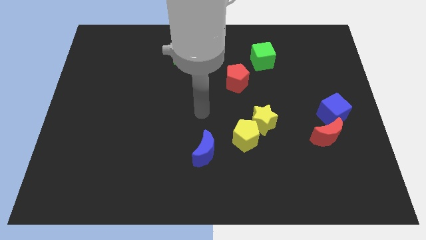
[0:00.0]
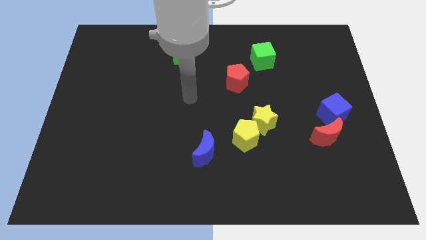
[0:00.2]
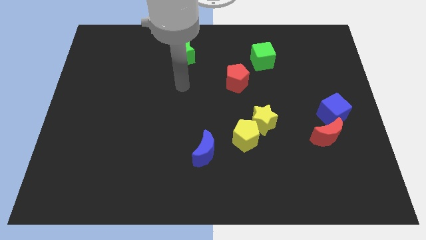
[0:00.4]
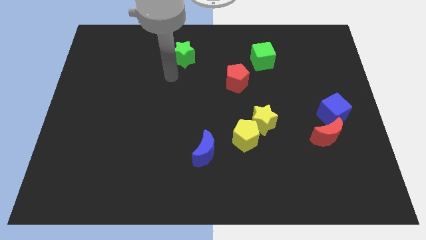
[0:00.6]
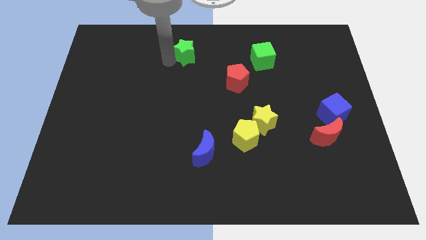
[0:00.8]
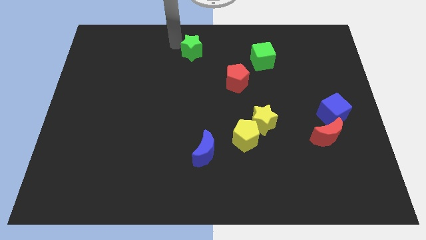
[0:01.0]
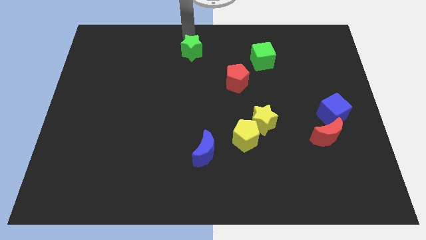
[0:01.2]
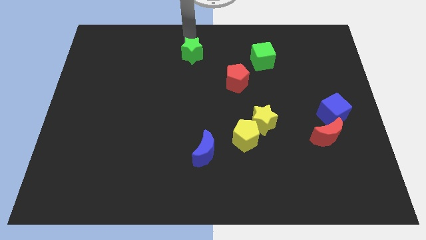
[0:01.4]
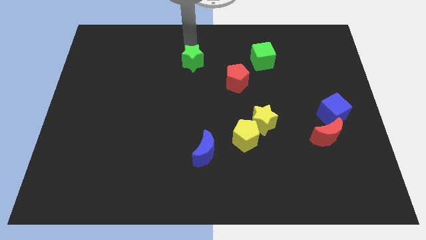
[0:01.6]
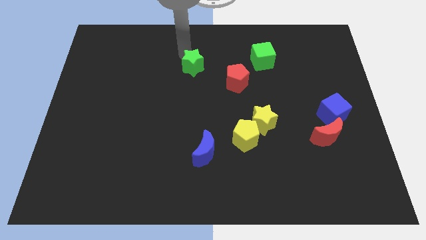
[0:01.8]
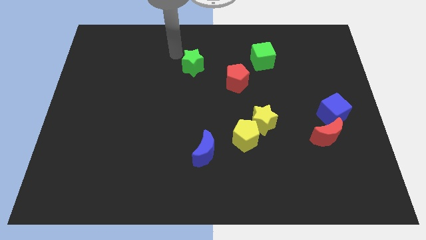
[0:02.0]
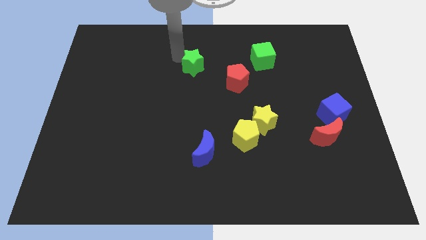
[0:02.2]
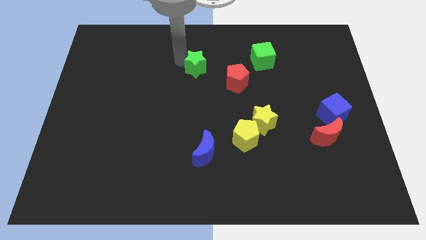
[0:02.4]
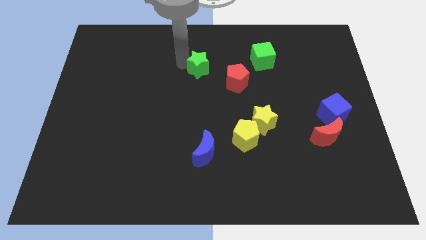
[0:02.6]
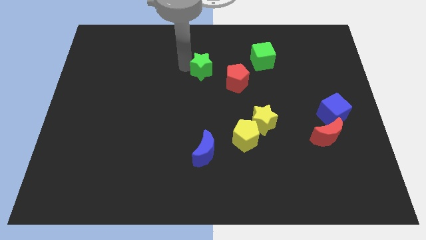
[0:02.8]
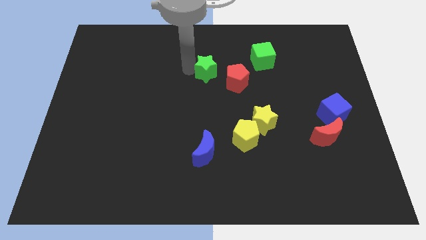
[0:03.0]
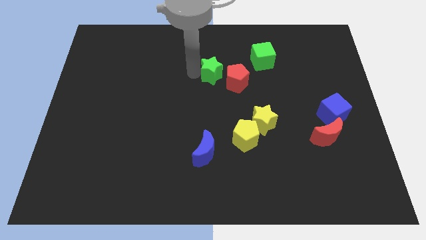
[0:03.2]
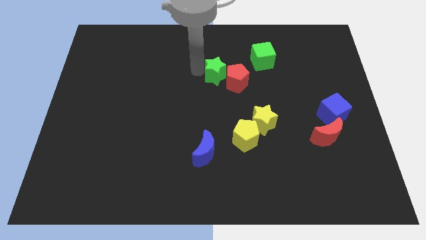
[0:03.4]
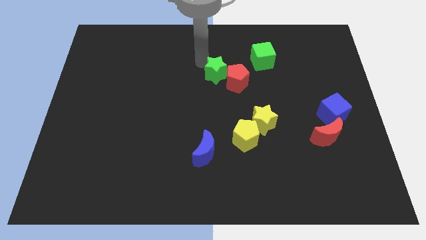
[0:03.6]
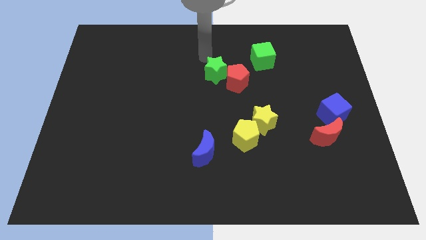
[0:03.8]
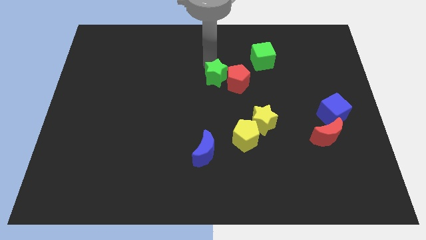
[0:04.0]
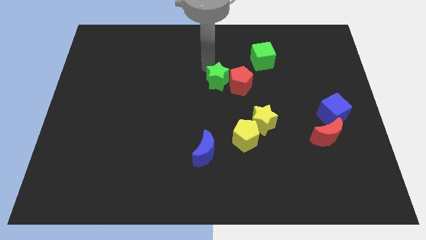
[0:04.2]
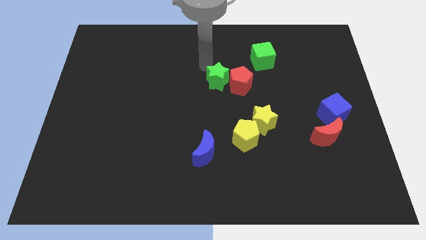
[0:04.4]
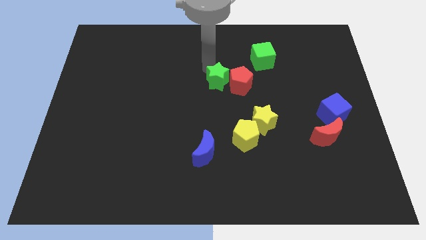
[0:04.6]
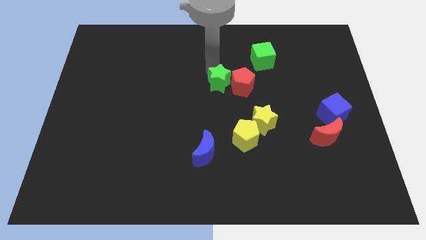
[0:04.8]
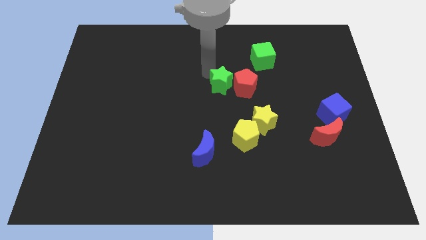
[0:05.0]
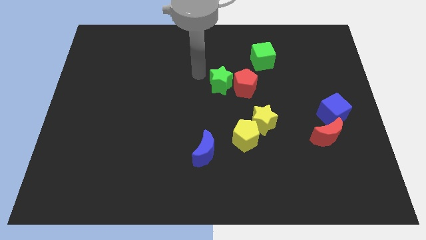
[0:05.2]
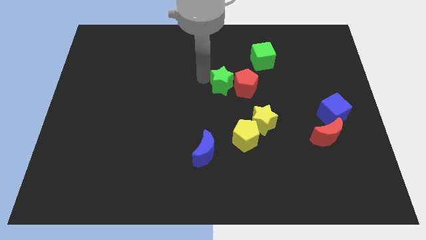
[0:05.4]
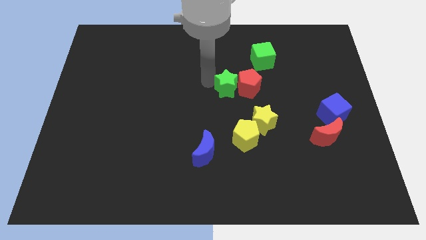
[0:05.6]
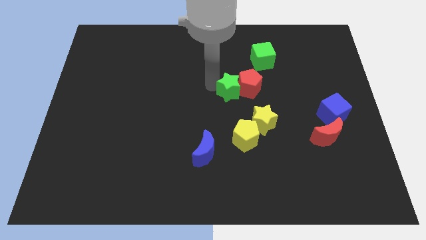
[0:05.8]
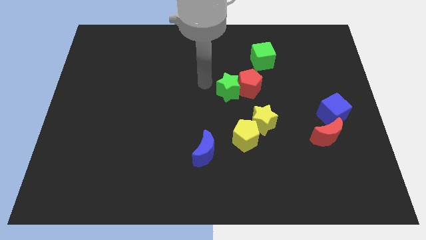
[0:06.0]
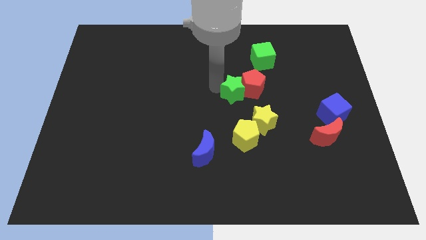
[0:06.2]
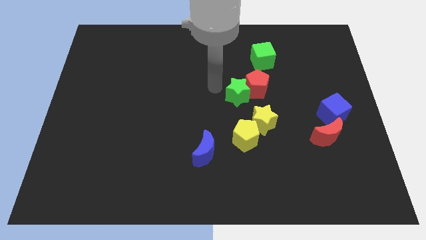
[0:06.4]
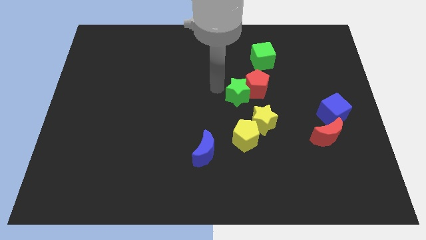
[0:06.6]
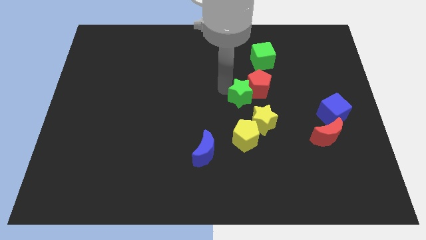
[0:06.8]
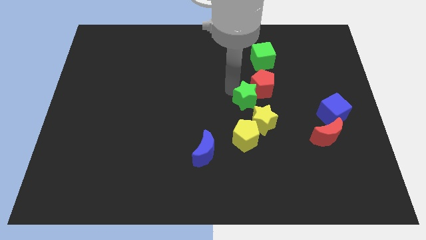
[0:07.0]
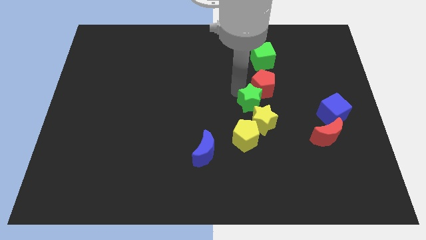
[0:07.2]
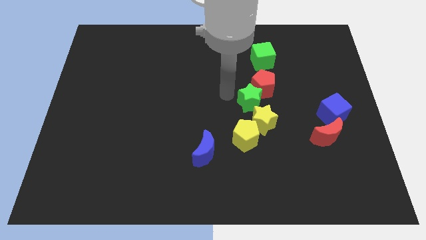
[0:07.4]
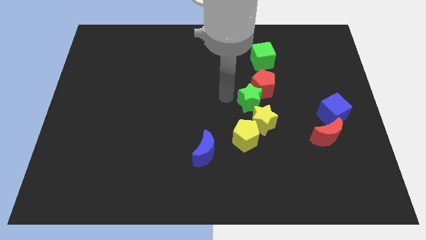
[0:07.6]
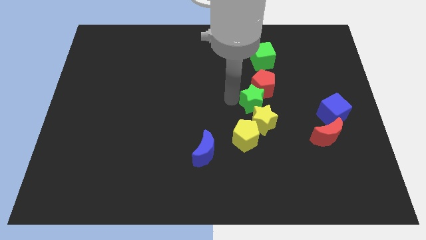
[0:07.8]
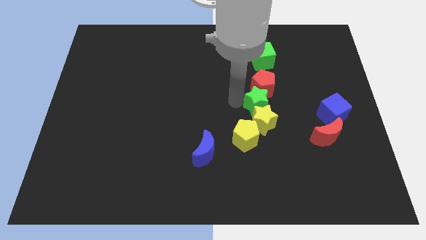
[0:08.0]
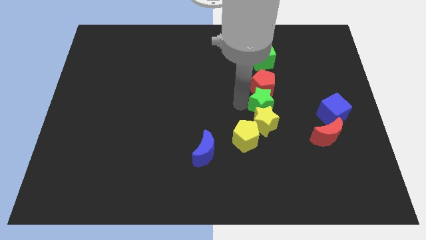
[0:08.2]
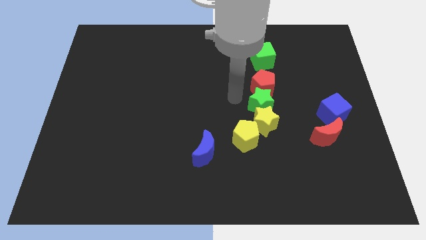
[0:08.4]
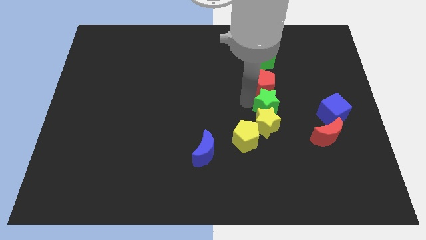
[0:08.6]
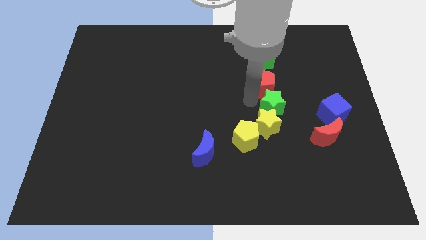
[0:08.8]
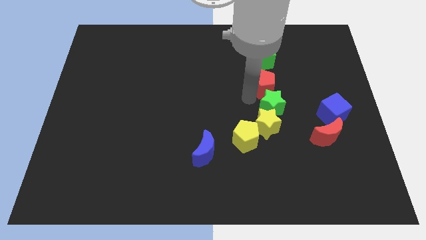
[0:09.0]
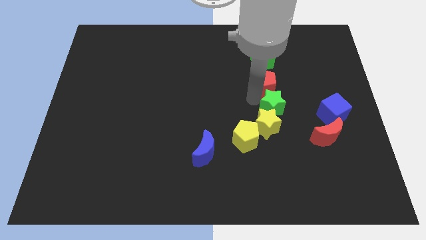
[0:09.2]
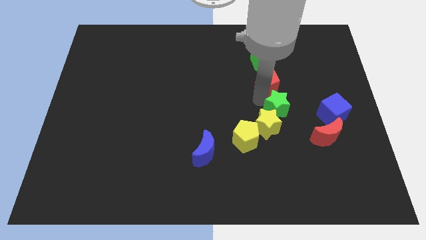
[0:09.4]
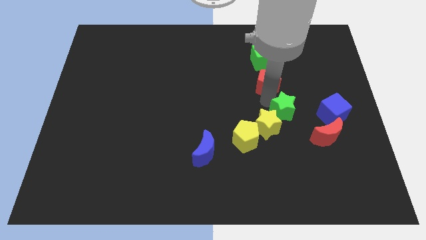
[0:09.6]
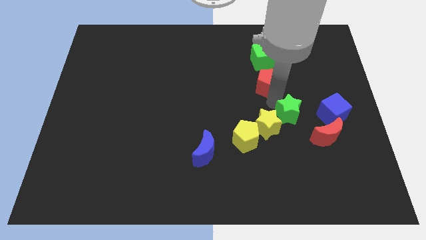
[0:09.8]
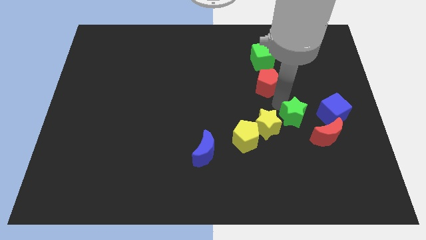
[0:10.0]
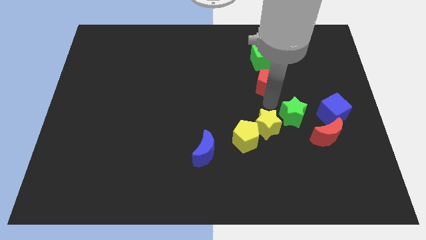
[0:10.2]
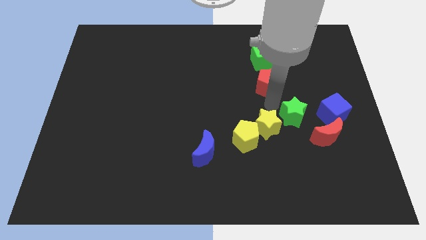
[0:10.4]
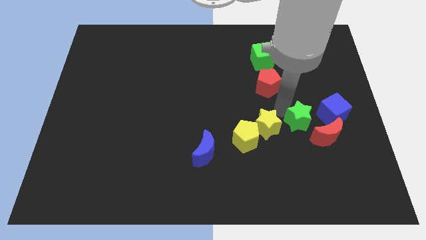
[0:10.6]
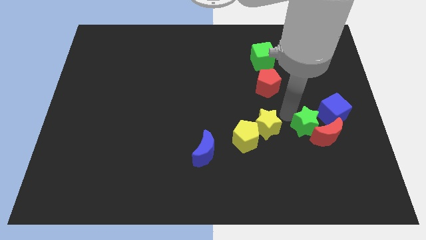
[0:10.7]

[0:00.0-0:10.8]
push the green star next to the red moon

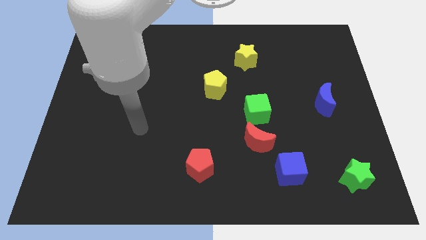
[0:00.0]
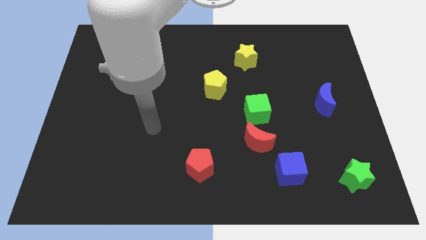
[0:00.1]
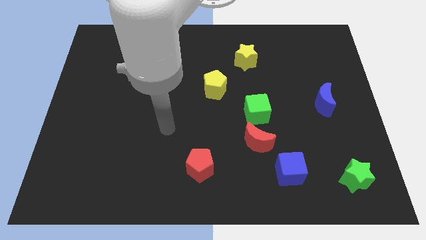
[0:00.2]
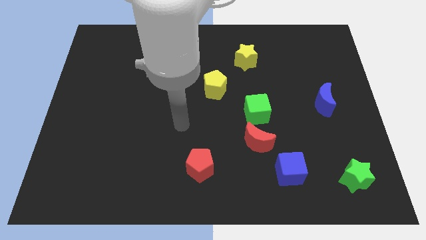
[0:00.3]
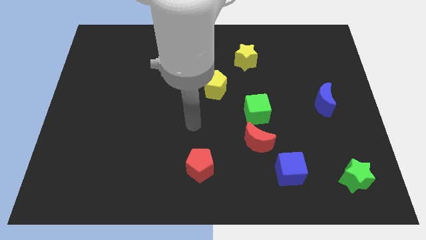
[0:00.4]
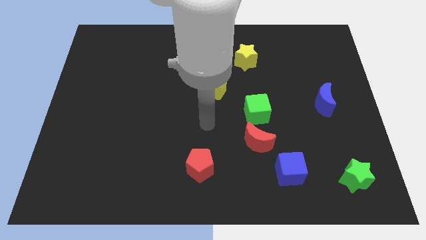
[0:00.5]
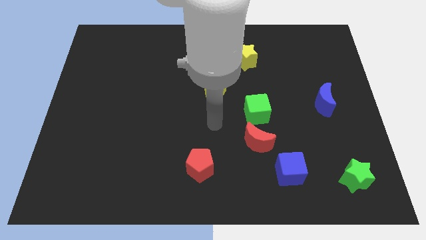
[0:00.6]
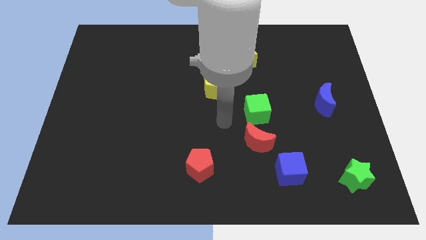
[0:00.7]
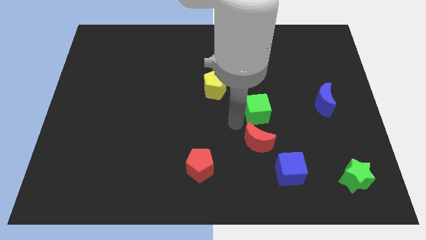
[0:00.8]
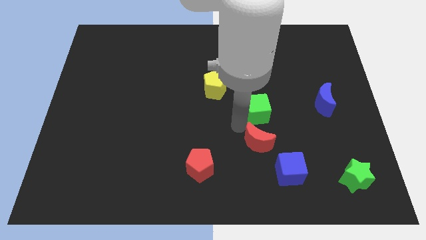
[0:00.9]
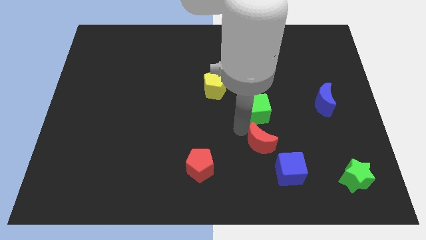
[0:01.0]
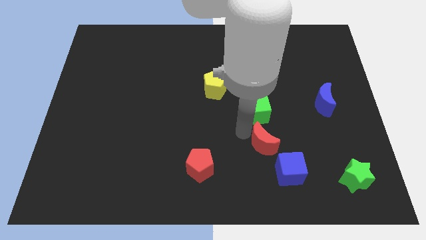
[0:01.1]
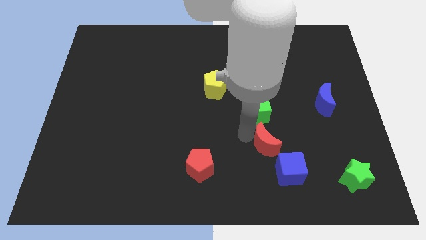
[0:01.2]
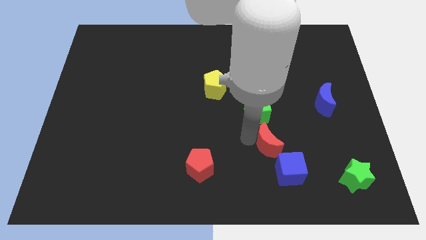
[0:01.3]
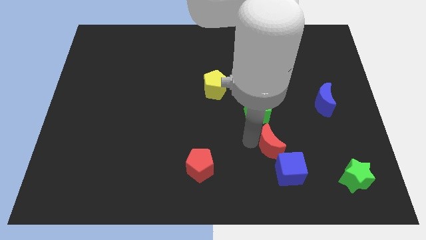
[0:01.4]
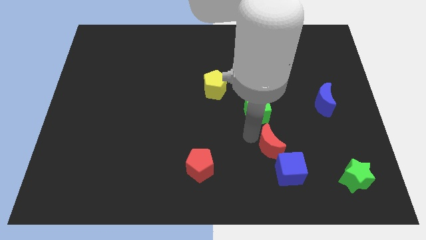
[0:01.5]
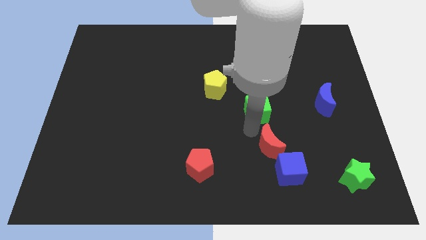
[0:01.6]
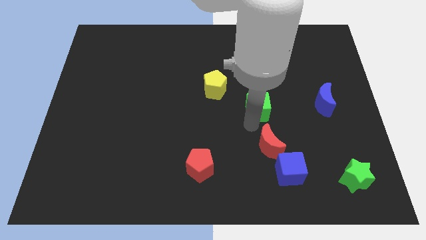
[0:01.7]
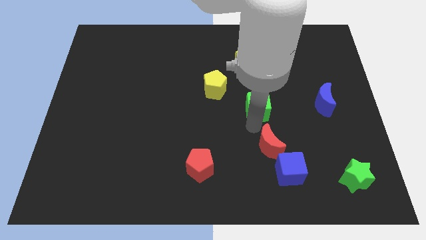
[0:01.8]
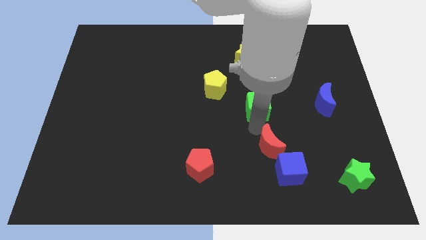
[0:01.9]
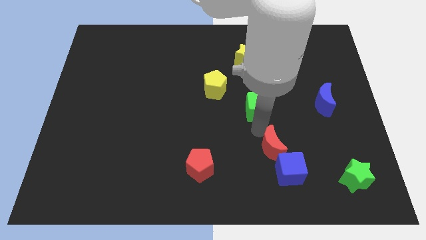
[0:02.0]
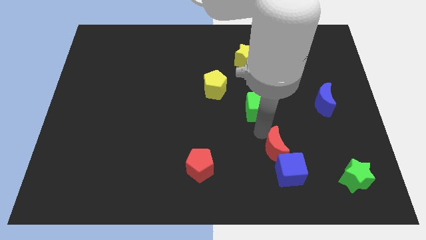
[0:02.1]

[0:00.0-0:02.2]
move the red moon towards the blue cube

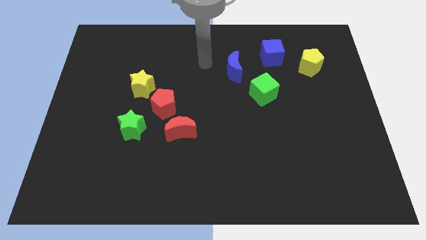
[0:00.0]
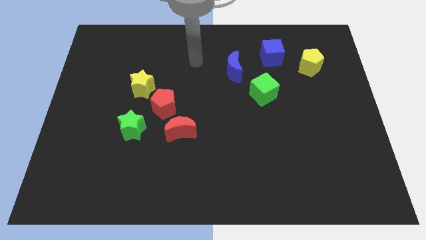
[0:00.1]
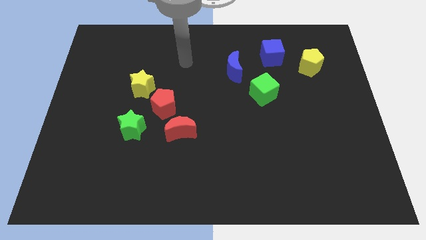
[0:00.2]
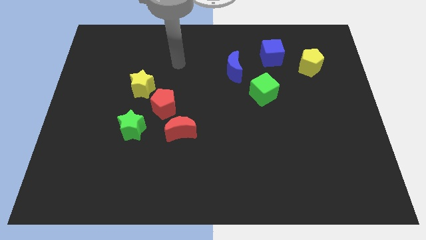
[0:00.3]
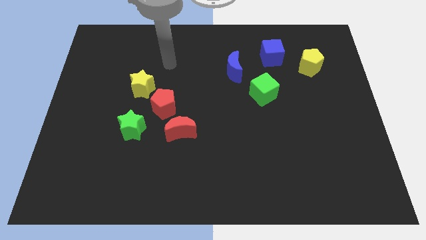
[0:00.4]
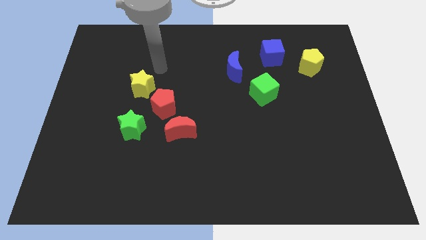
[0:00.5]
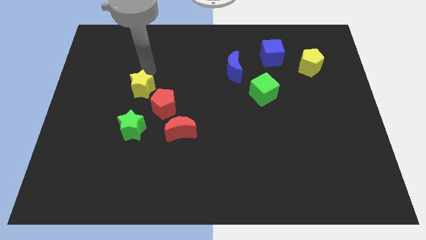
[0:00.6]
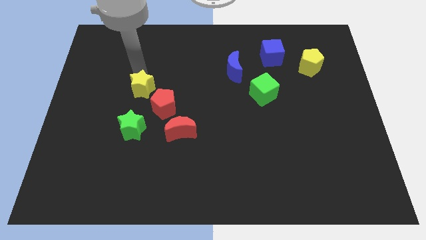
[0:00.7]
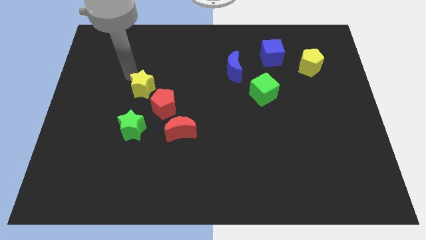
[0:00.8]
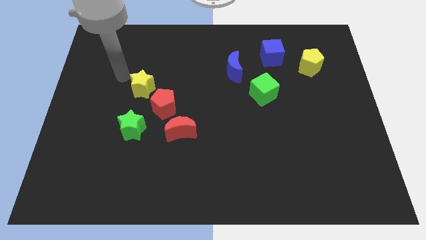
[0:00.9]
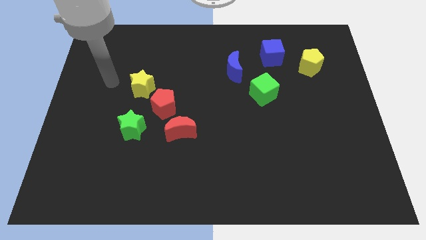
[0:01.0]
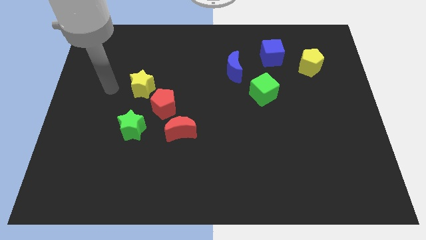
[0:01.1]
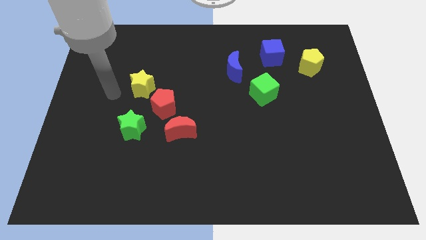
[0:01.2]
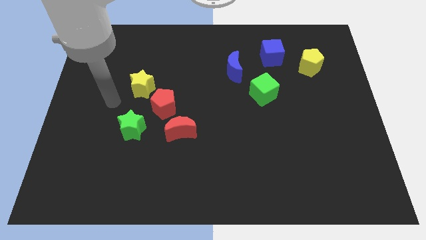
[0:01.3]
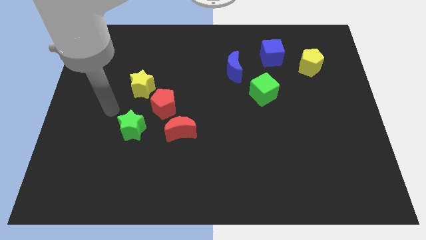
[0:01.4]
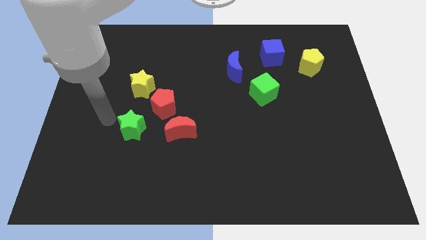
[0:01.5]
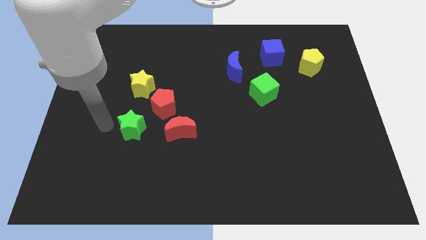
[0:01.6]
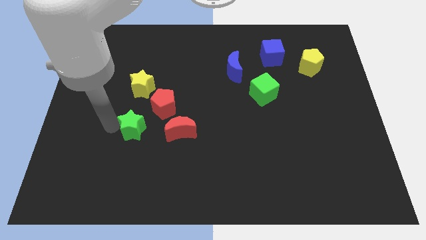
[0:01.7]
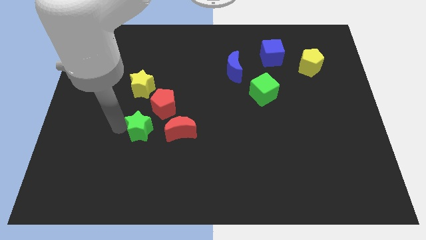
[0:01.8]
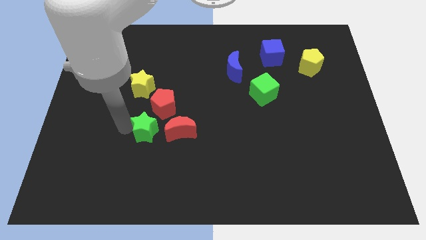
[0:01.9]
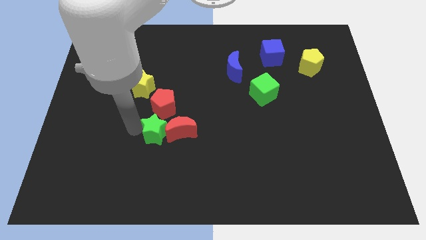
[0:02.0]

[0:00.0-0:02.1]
slide the green star to the red moon
